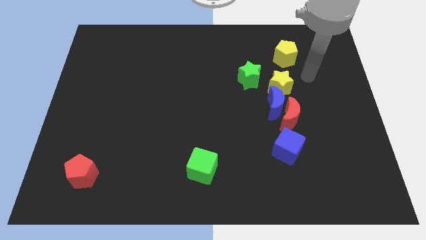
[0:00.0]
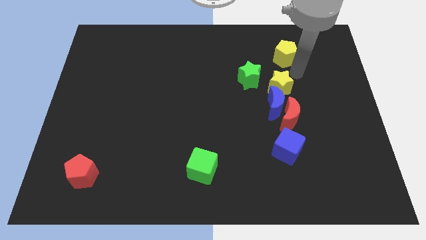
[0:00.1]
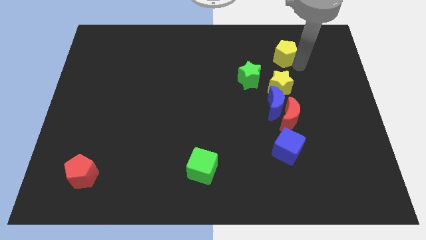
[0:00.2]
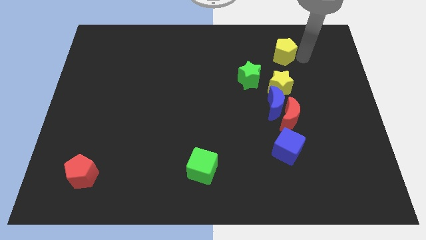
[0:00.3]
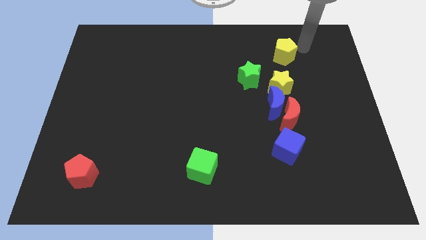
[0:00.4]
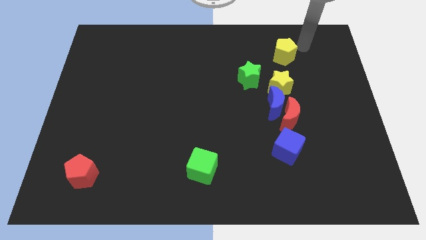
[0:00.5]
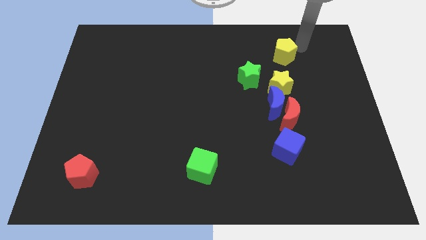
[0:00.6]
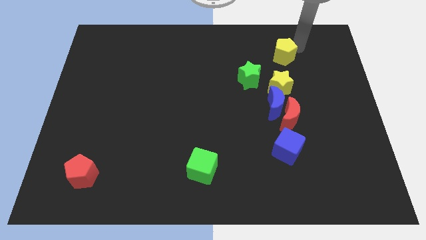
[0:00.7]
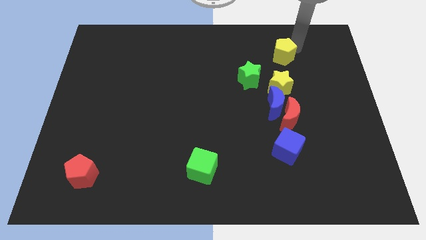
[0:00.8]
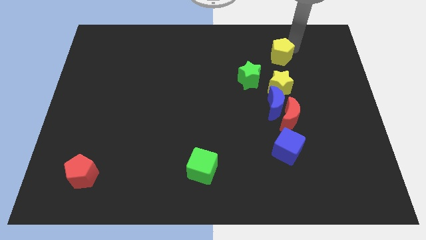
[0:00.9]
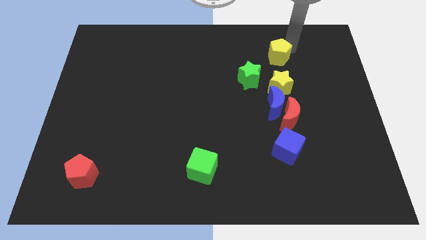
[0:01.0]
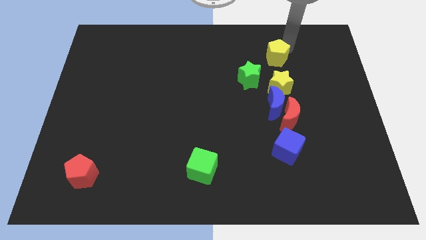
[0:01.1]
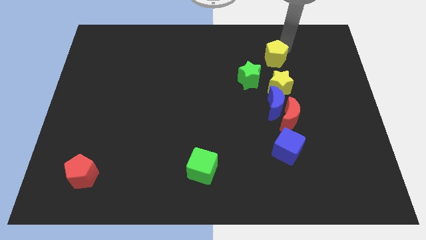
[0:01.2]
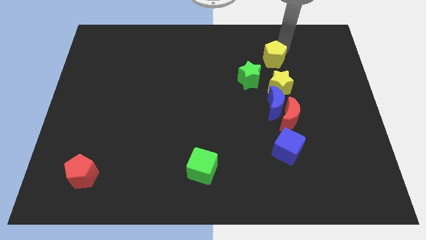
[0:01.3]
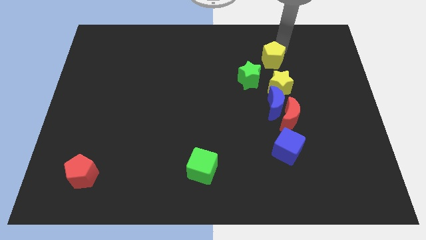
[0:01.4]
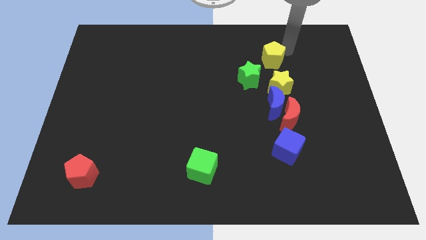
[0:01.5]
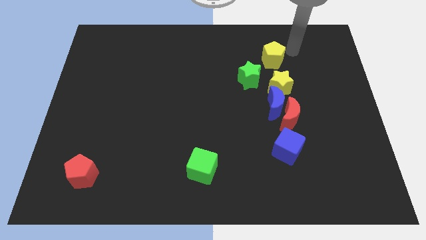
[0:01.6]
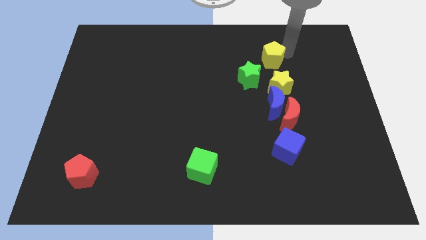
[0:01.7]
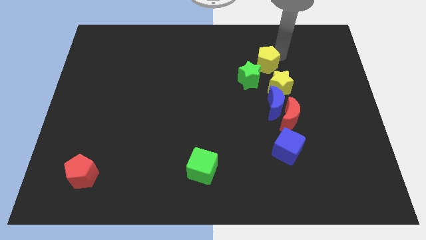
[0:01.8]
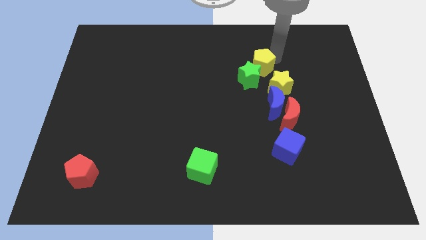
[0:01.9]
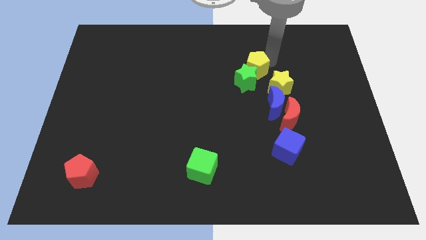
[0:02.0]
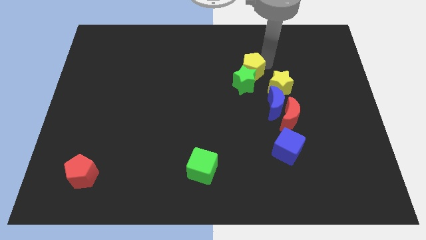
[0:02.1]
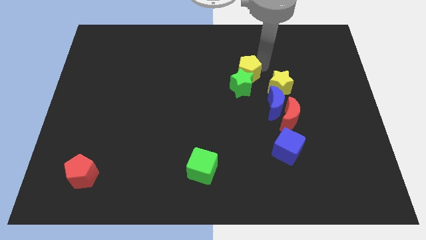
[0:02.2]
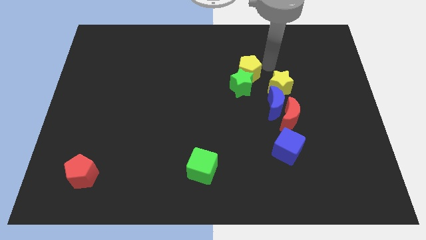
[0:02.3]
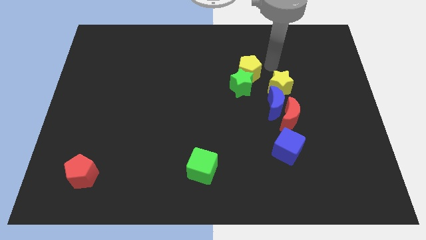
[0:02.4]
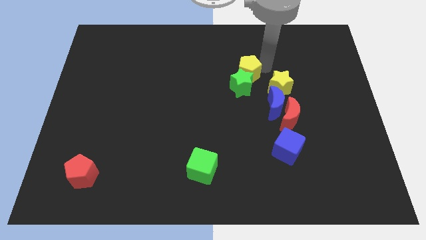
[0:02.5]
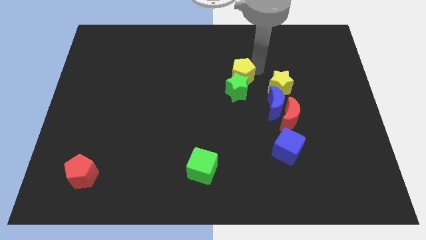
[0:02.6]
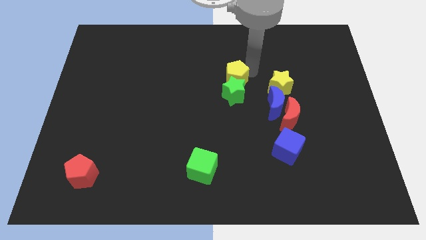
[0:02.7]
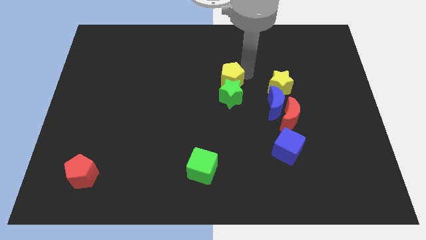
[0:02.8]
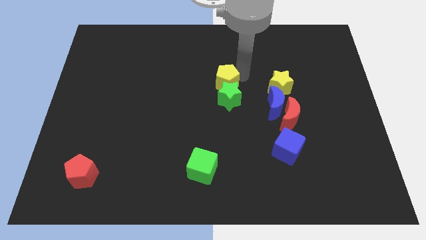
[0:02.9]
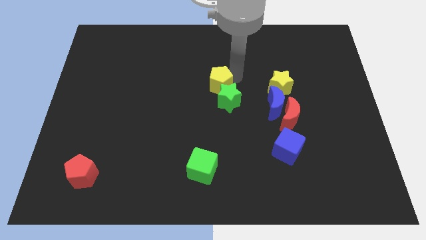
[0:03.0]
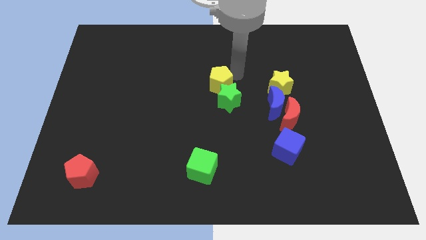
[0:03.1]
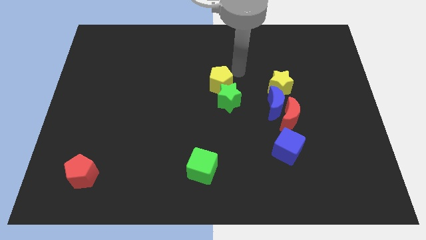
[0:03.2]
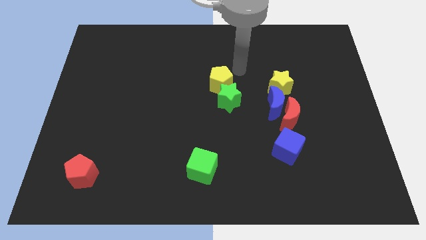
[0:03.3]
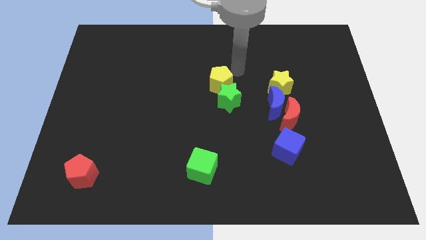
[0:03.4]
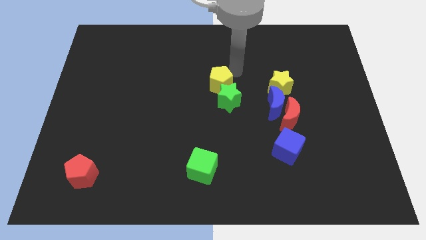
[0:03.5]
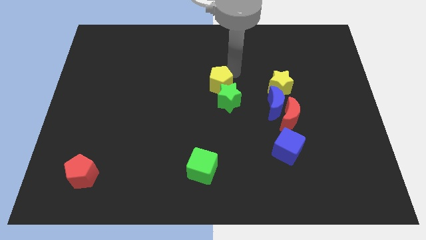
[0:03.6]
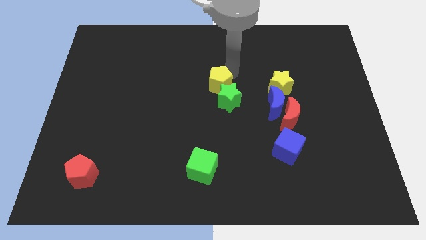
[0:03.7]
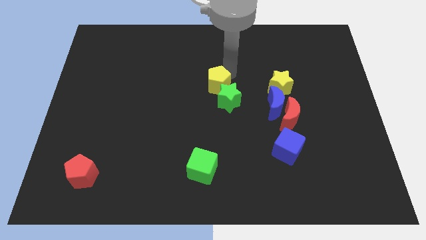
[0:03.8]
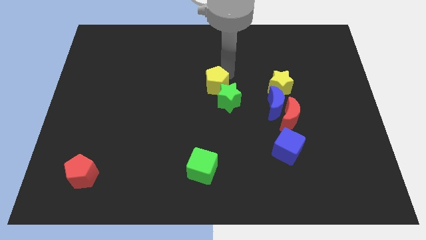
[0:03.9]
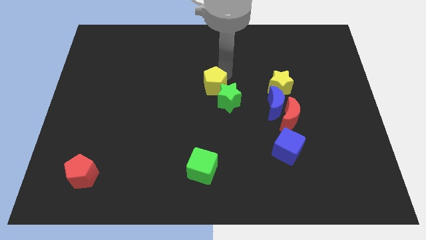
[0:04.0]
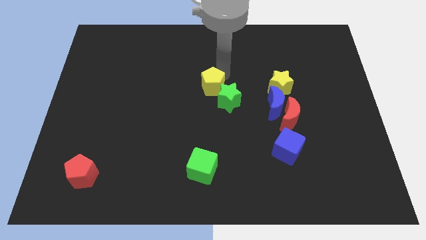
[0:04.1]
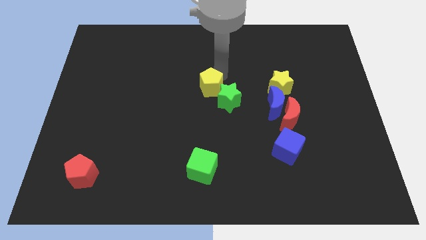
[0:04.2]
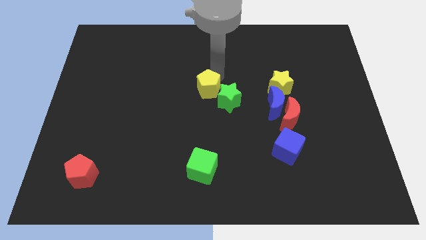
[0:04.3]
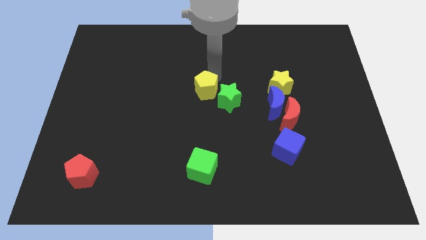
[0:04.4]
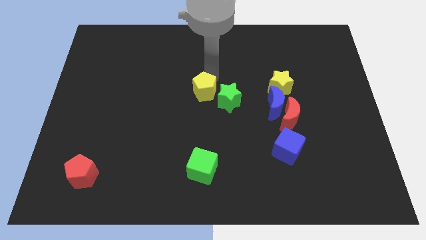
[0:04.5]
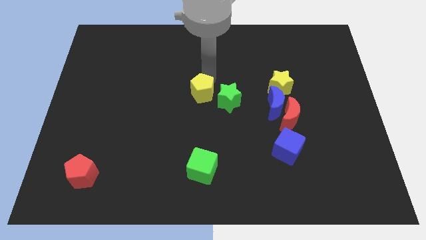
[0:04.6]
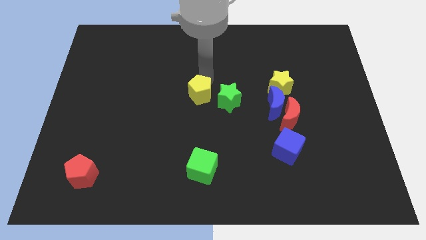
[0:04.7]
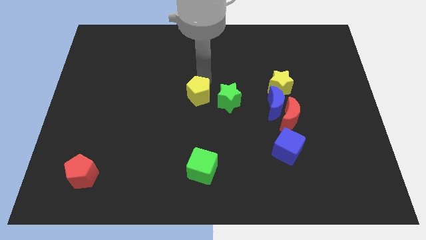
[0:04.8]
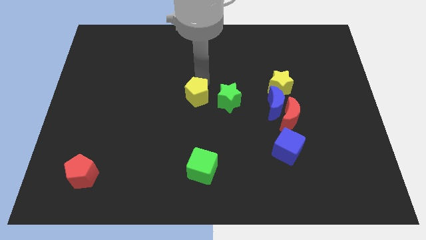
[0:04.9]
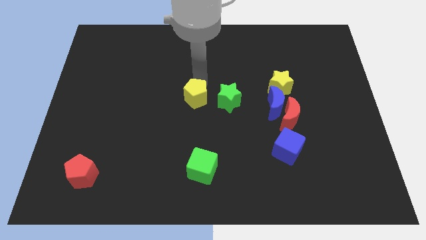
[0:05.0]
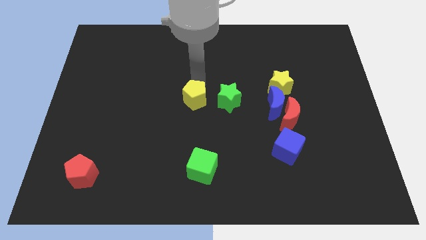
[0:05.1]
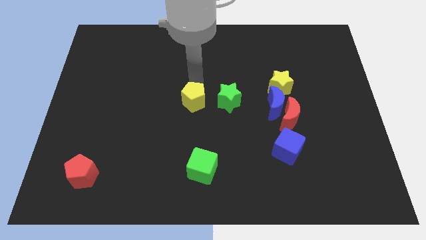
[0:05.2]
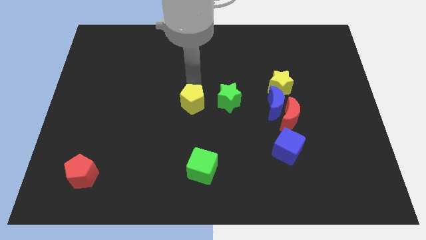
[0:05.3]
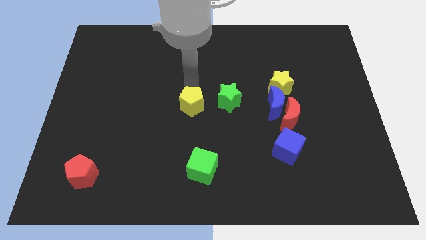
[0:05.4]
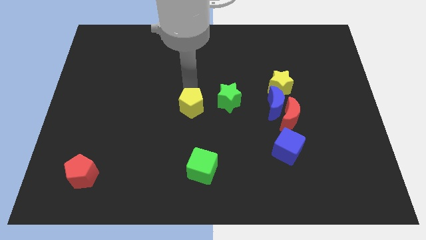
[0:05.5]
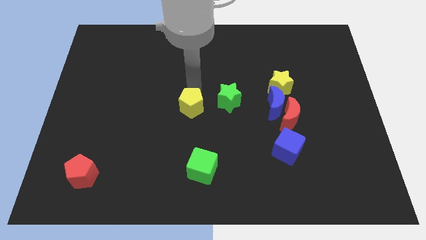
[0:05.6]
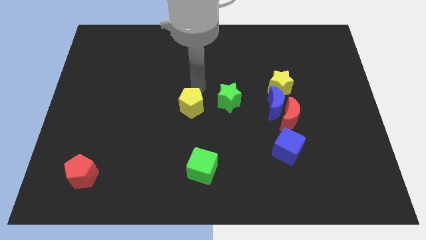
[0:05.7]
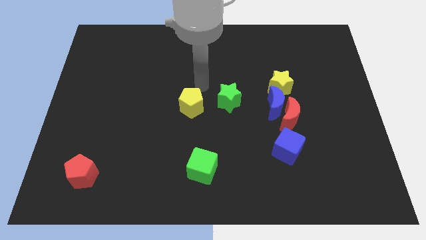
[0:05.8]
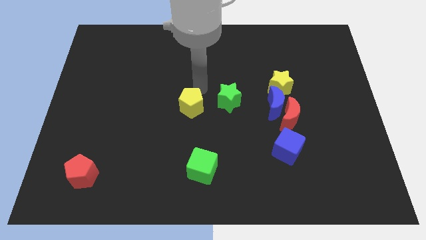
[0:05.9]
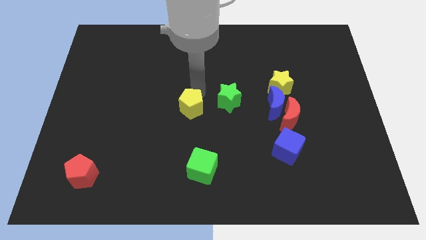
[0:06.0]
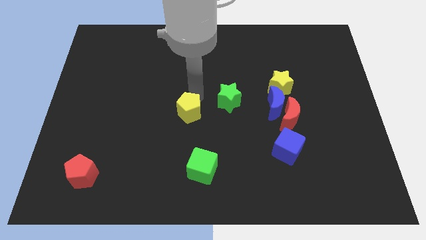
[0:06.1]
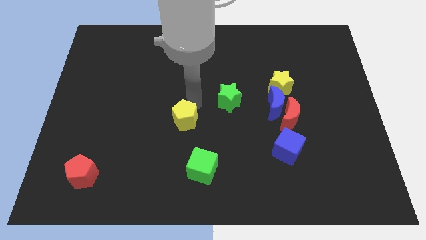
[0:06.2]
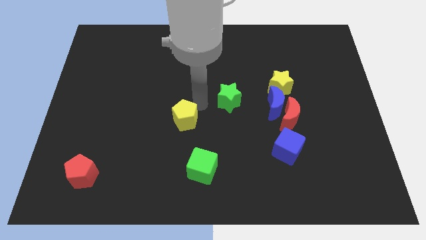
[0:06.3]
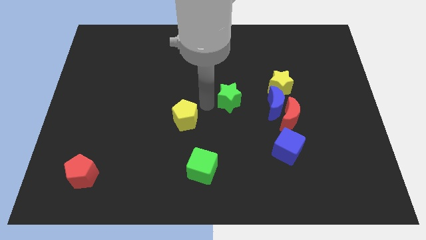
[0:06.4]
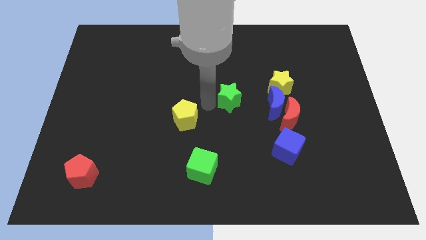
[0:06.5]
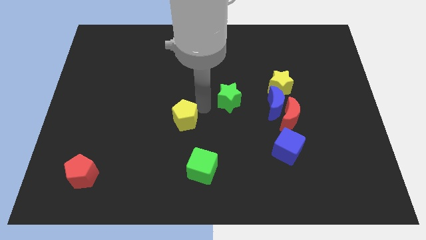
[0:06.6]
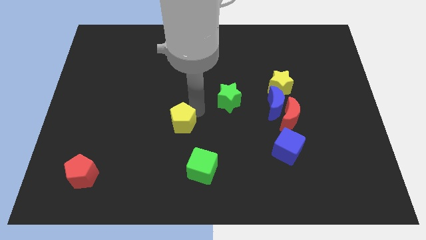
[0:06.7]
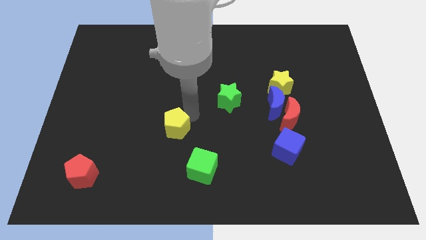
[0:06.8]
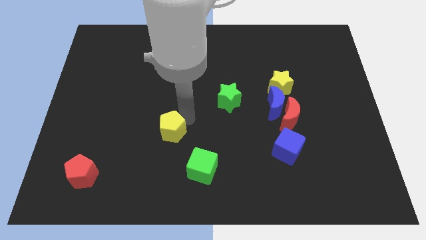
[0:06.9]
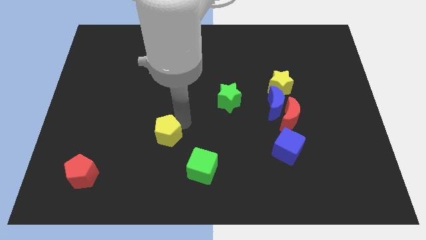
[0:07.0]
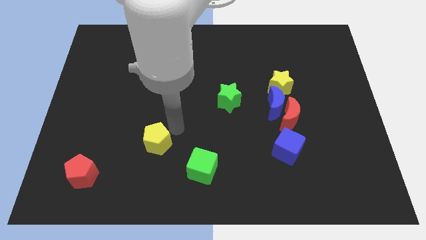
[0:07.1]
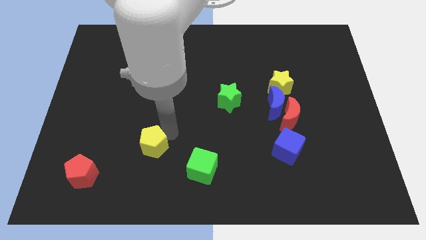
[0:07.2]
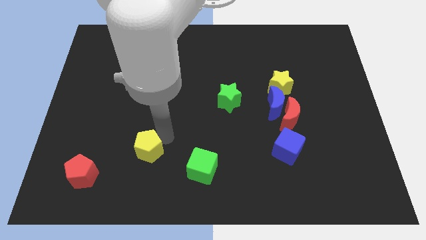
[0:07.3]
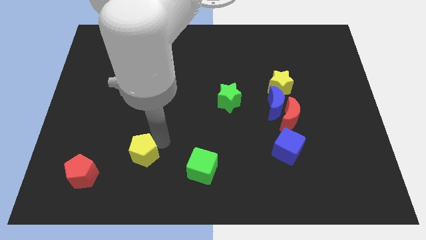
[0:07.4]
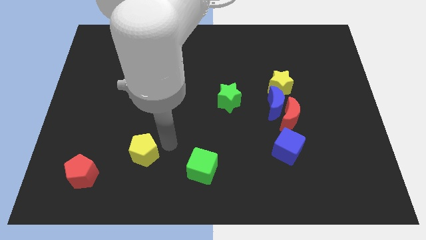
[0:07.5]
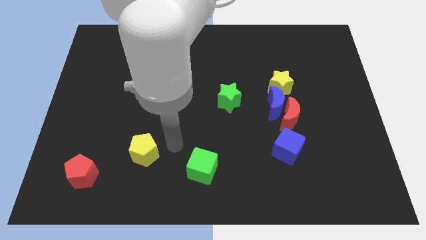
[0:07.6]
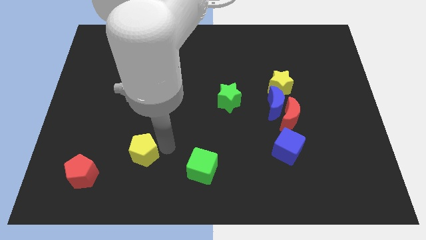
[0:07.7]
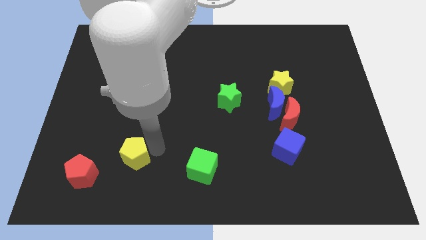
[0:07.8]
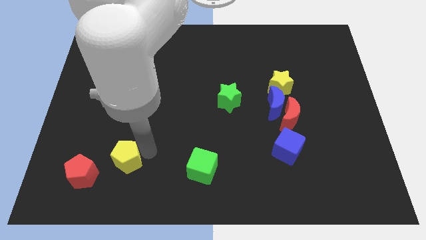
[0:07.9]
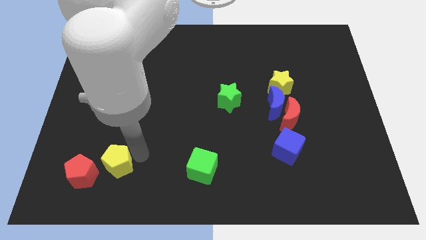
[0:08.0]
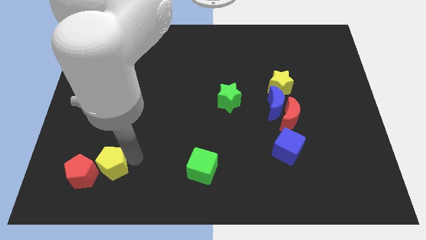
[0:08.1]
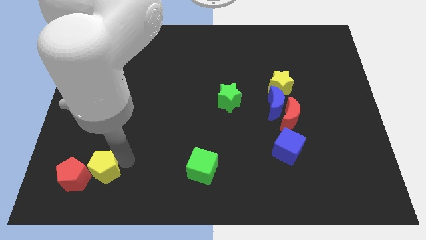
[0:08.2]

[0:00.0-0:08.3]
move the yellow pentagon towards the red pentagon
